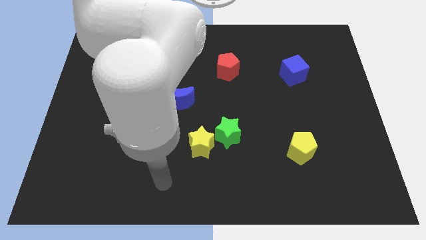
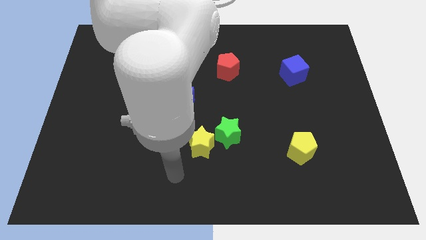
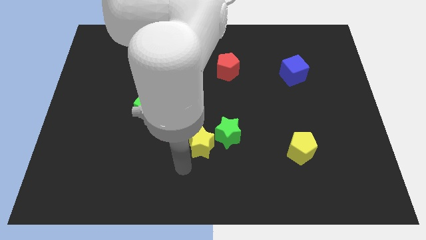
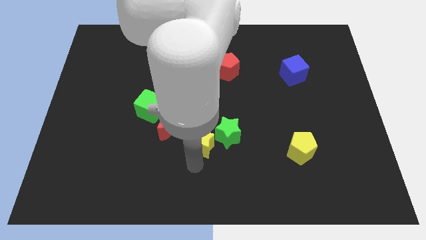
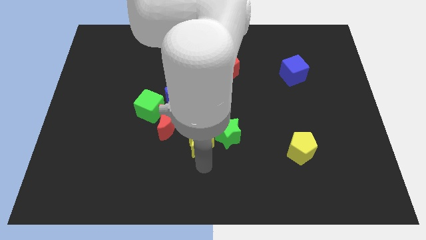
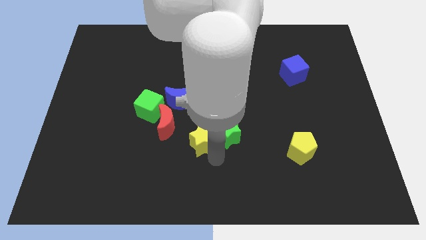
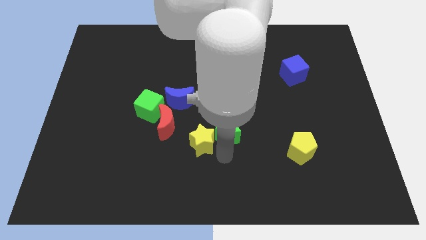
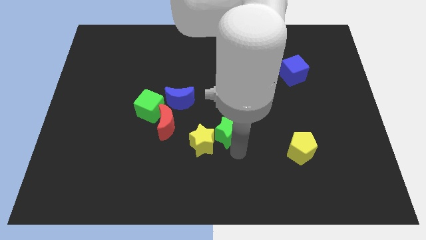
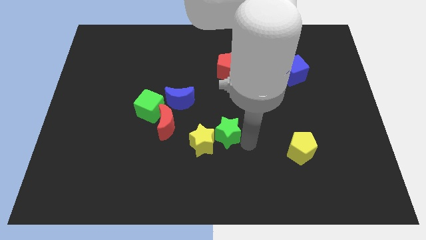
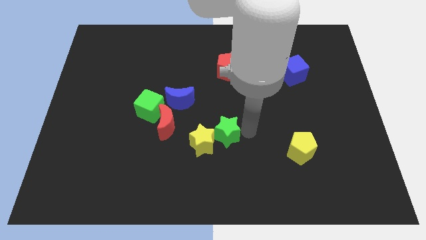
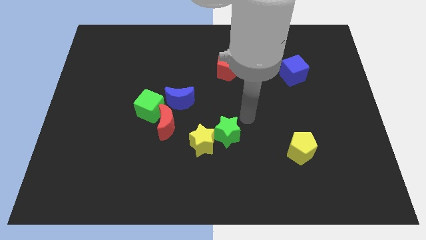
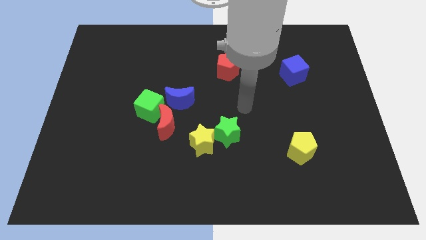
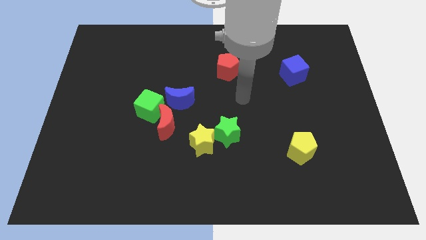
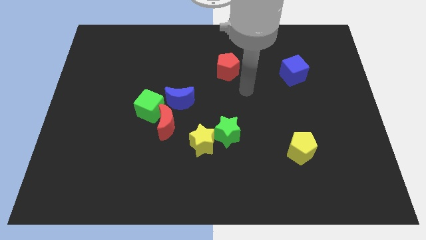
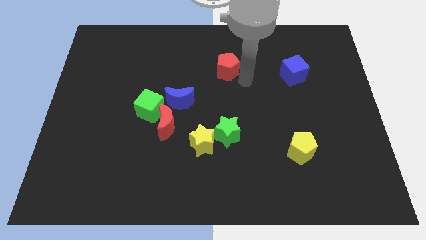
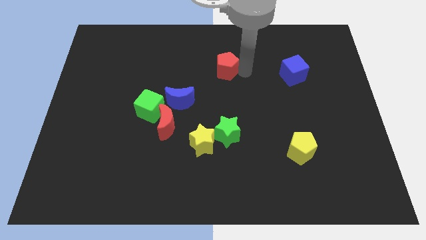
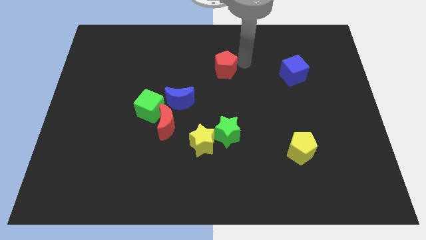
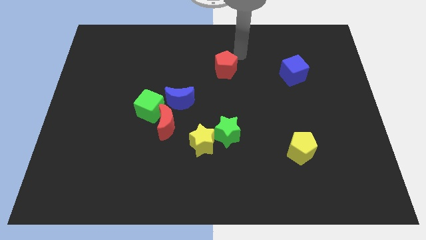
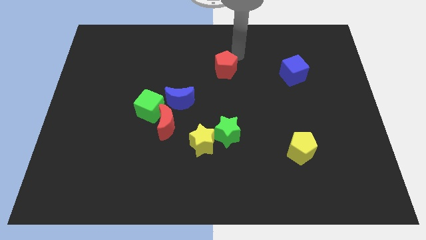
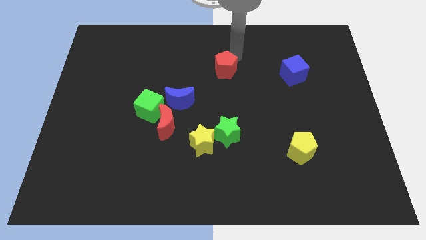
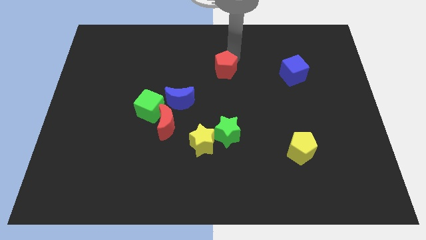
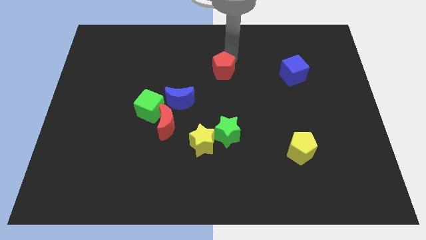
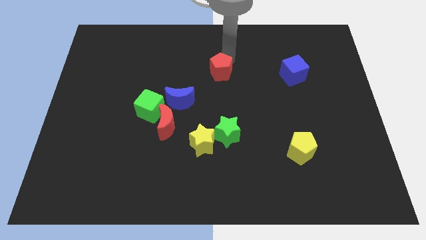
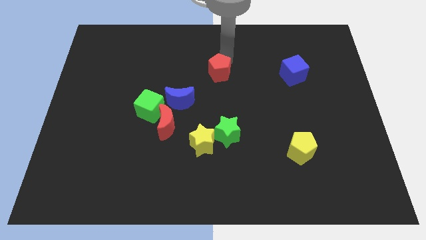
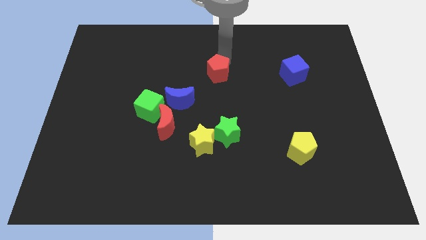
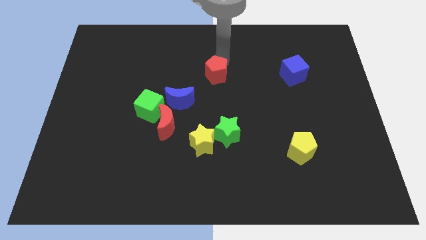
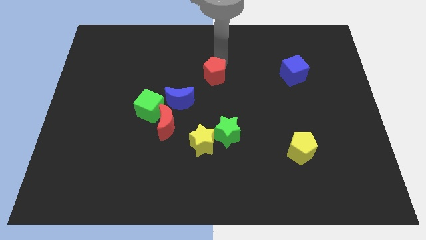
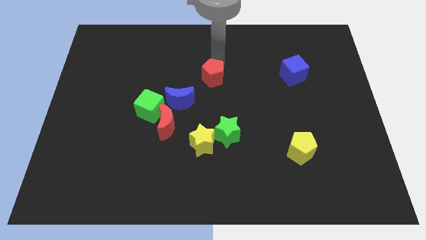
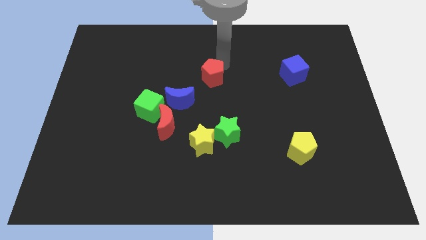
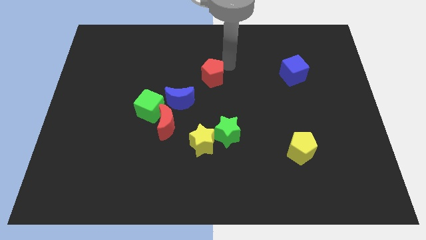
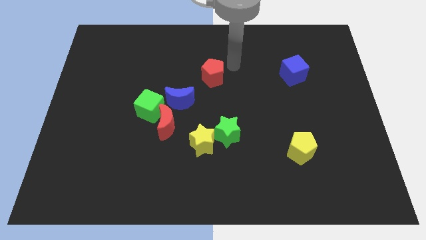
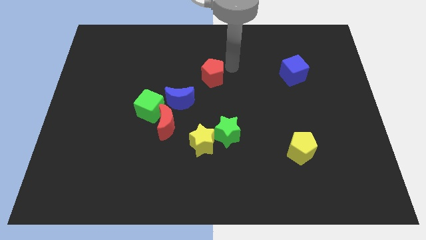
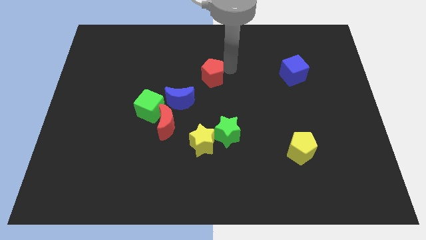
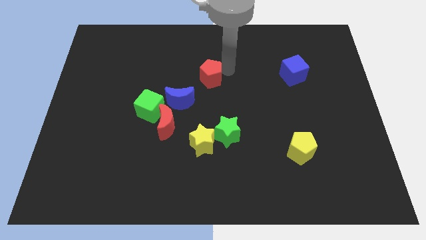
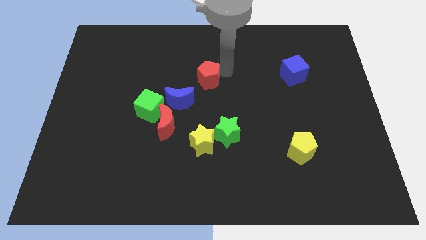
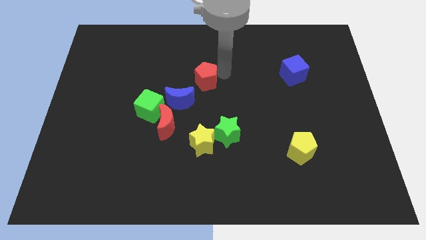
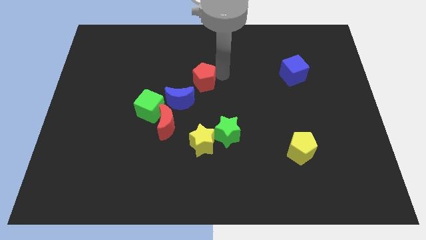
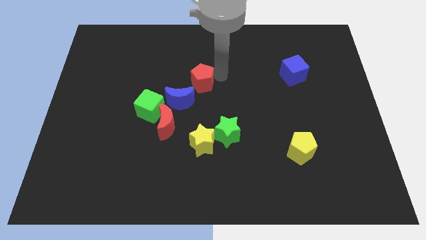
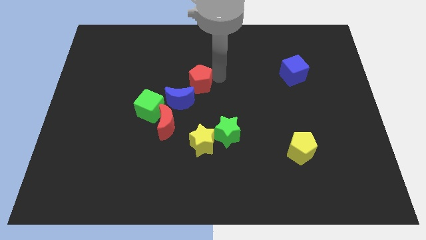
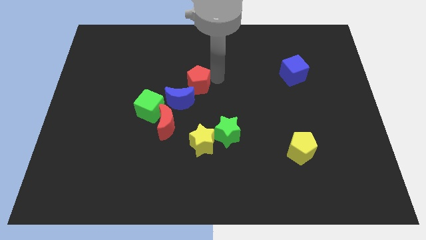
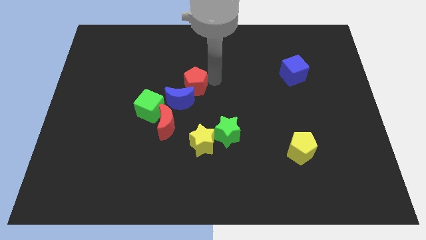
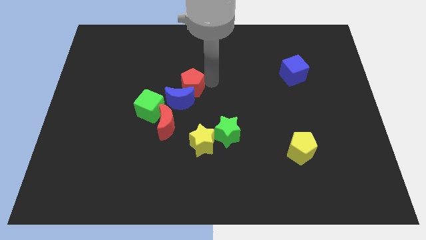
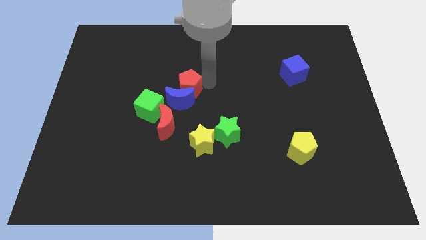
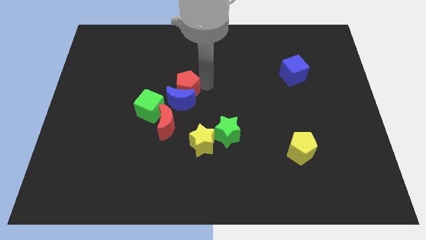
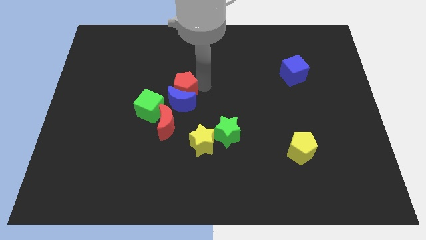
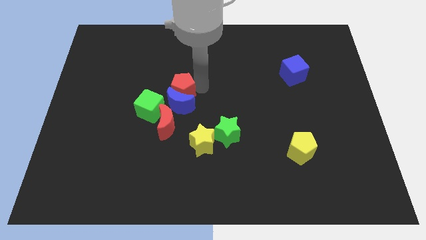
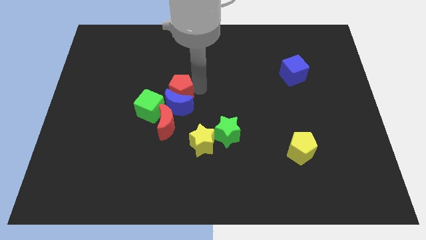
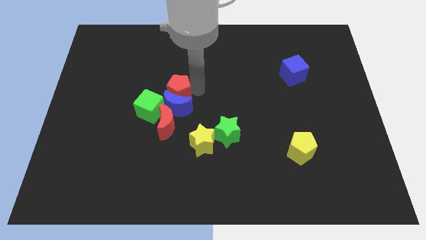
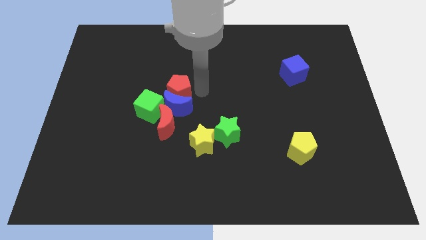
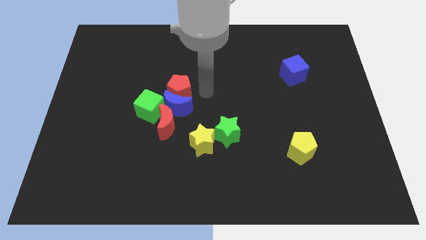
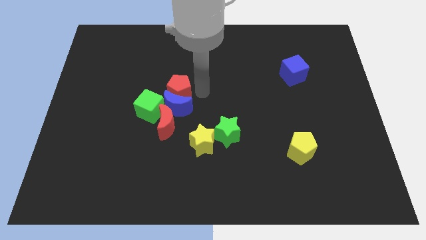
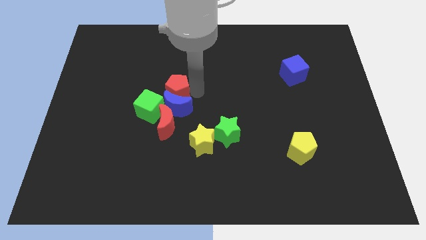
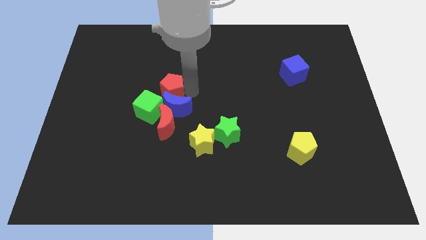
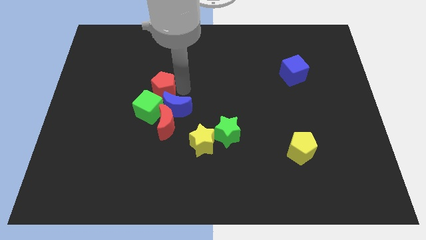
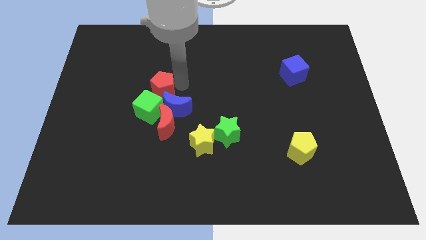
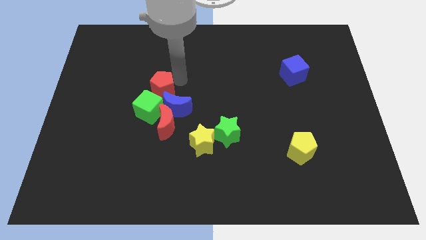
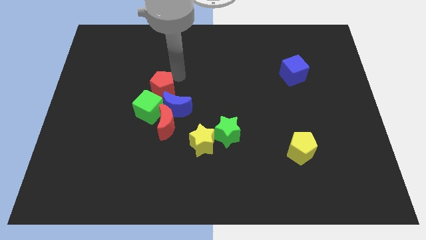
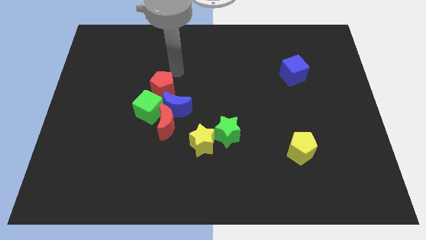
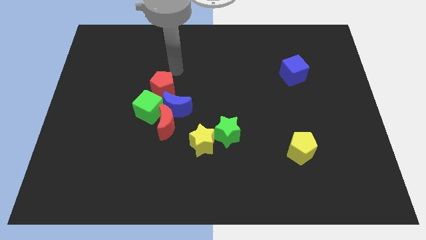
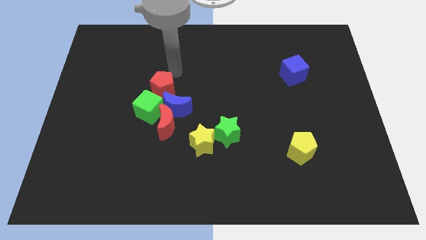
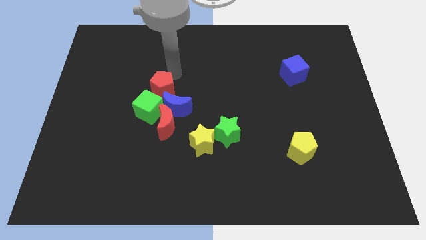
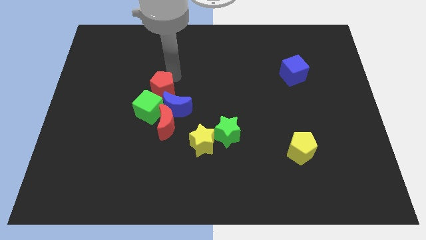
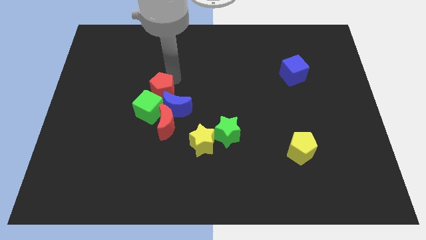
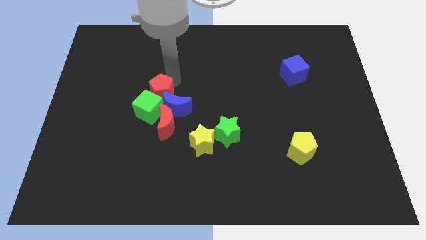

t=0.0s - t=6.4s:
slide the red pentagon towards the green cube
